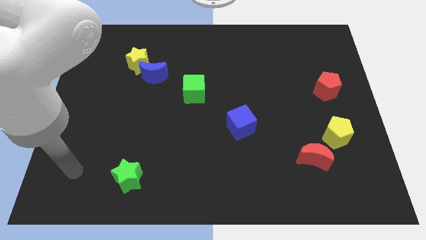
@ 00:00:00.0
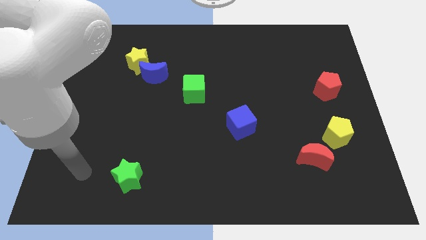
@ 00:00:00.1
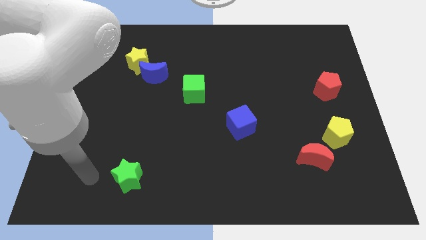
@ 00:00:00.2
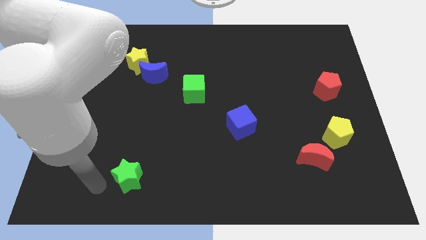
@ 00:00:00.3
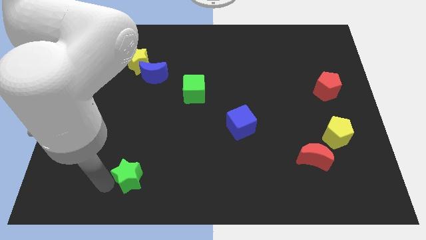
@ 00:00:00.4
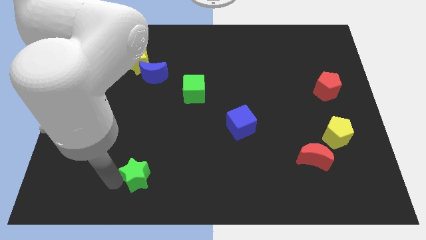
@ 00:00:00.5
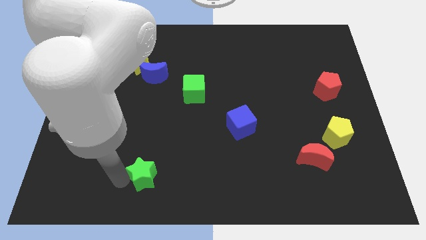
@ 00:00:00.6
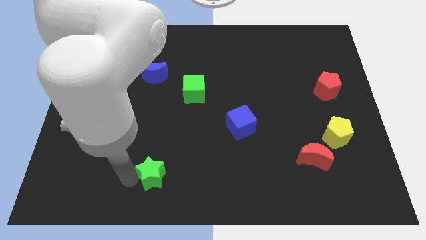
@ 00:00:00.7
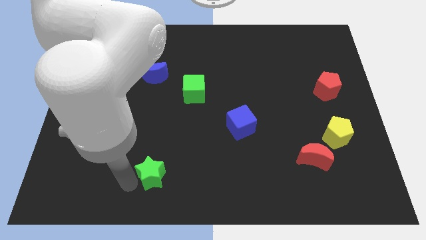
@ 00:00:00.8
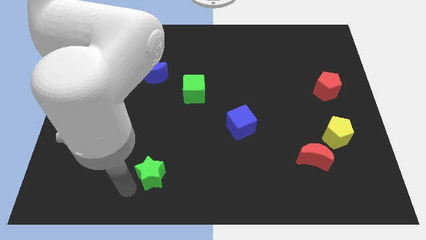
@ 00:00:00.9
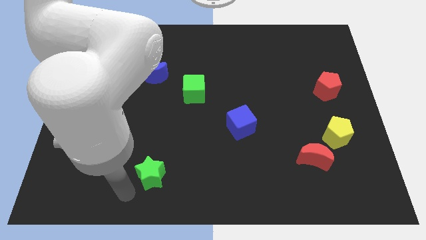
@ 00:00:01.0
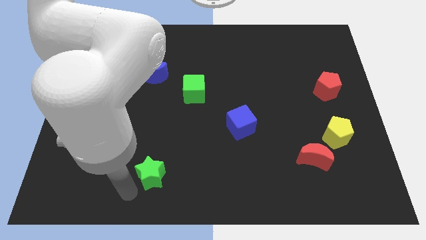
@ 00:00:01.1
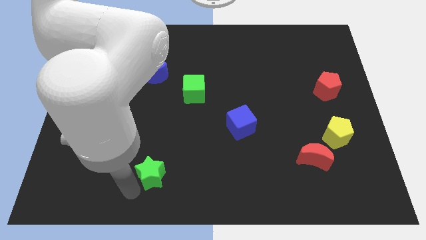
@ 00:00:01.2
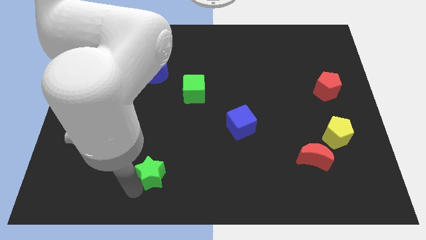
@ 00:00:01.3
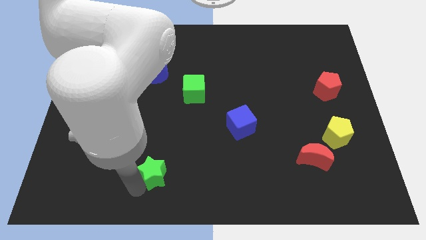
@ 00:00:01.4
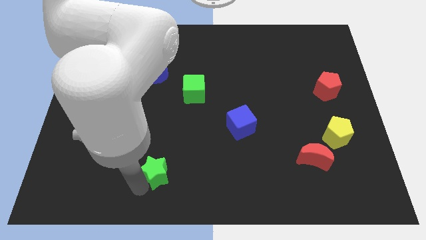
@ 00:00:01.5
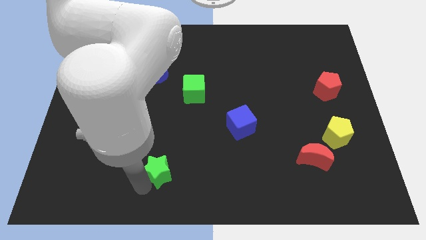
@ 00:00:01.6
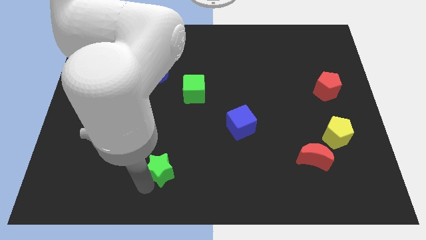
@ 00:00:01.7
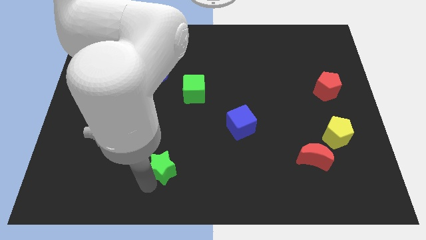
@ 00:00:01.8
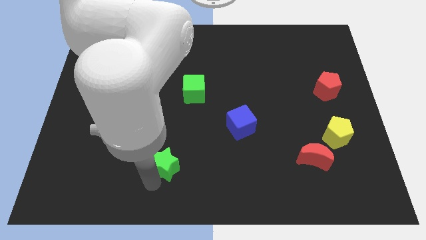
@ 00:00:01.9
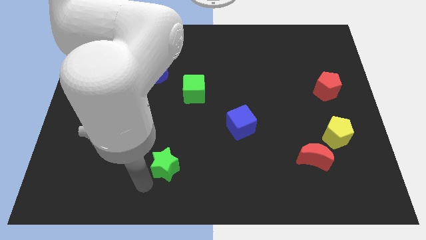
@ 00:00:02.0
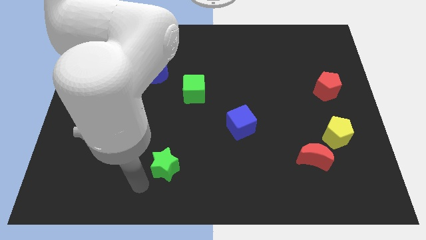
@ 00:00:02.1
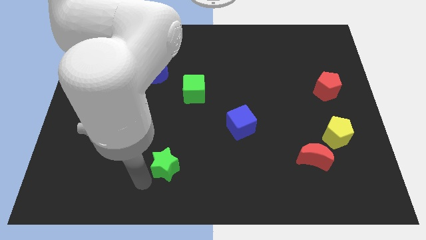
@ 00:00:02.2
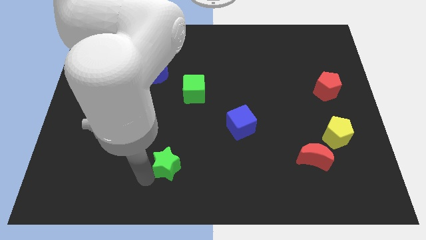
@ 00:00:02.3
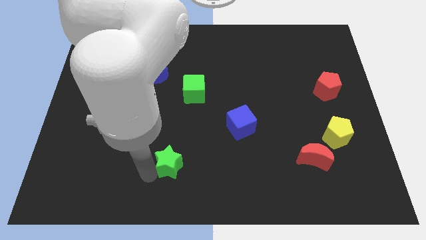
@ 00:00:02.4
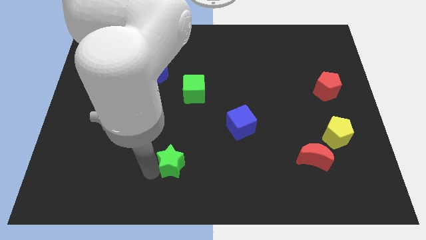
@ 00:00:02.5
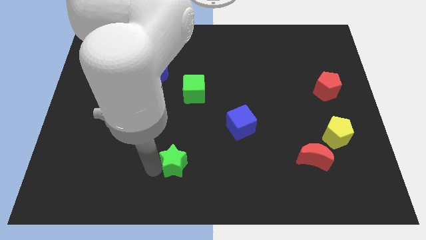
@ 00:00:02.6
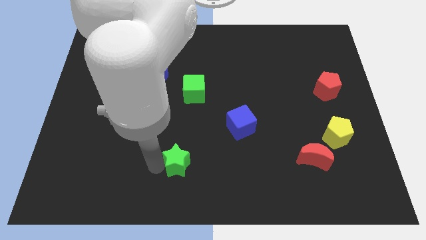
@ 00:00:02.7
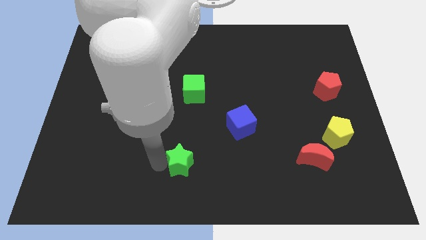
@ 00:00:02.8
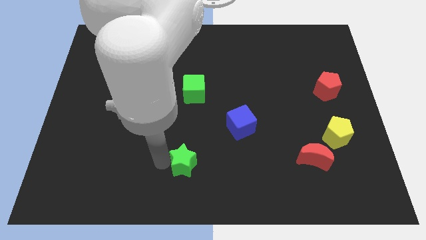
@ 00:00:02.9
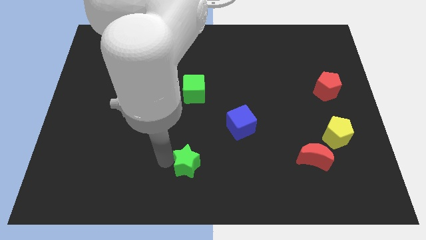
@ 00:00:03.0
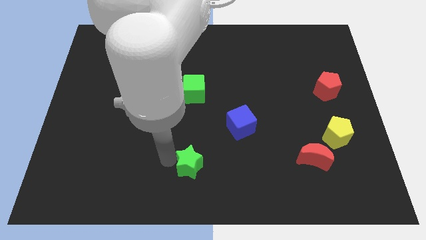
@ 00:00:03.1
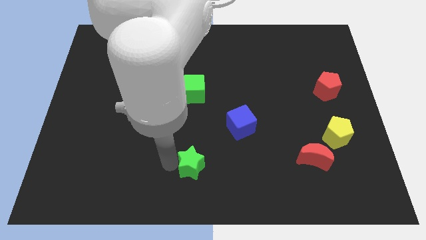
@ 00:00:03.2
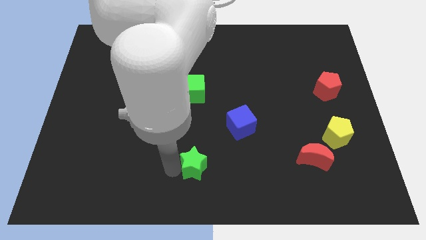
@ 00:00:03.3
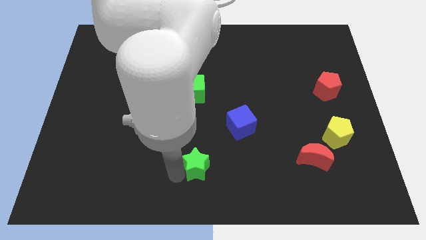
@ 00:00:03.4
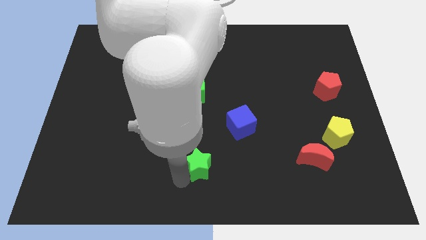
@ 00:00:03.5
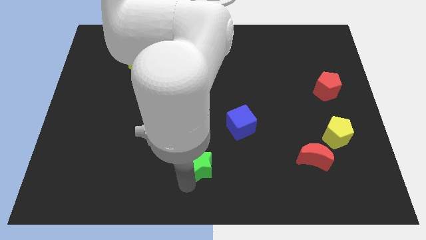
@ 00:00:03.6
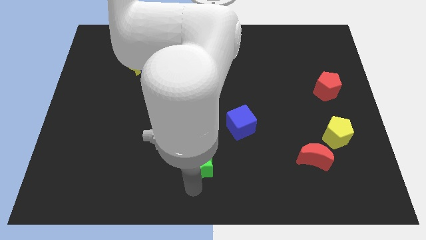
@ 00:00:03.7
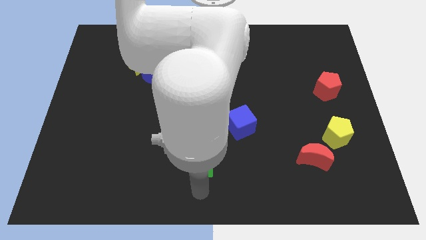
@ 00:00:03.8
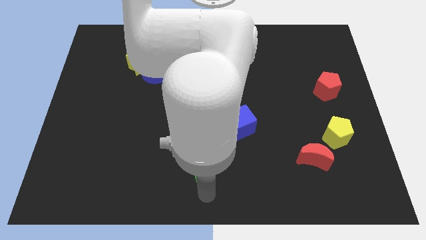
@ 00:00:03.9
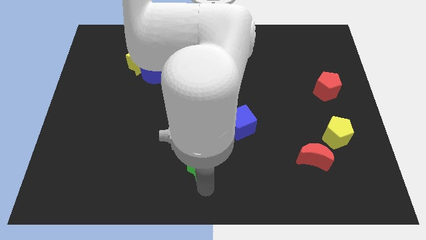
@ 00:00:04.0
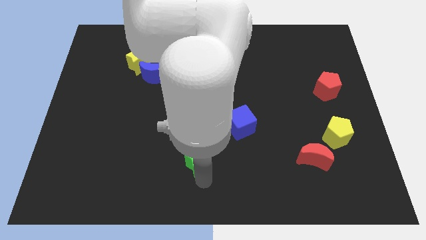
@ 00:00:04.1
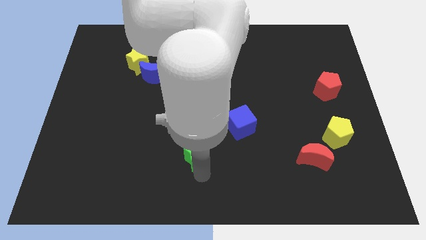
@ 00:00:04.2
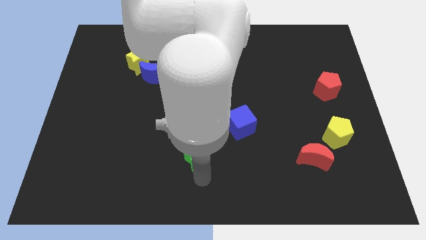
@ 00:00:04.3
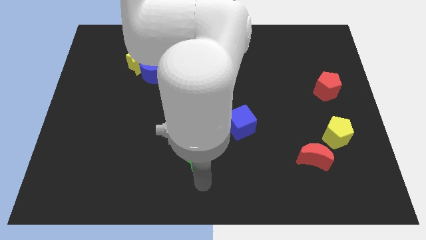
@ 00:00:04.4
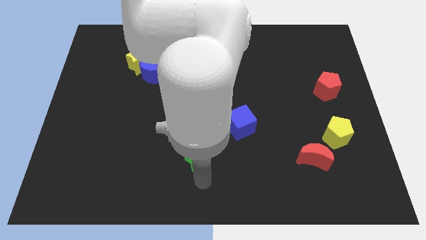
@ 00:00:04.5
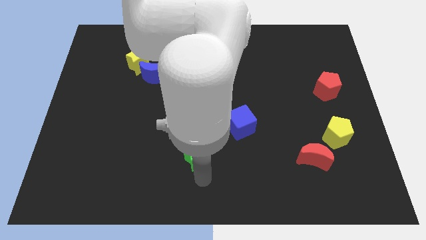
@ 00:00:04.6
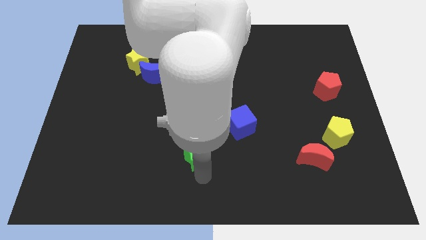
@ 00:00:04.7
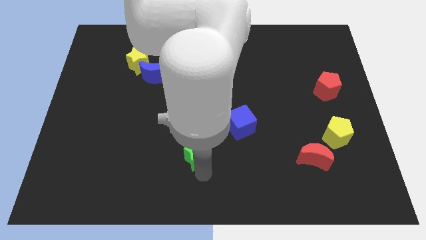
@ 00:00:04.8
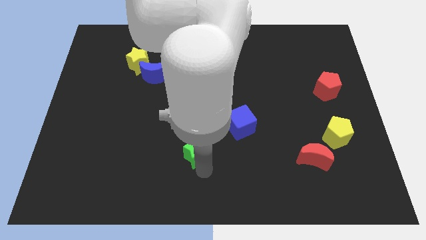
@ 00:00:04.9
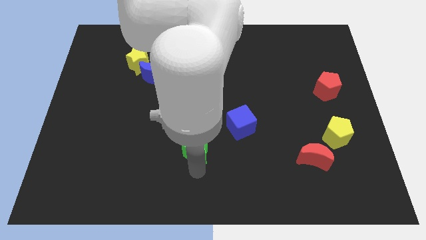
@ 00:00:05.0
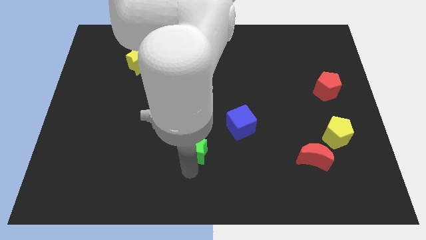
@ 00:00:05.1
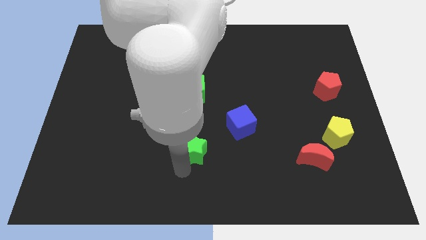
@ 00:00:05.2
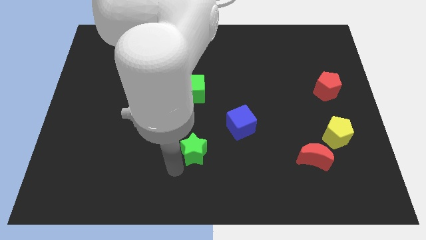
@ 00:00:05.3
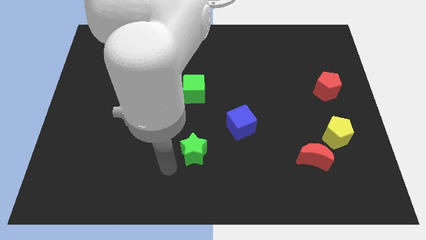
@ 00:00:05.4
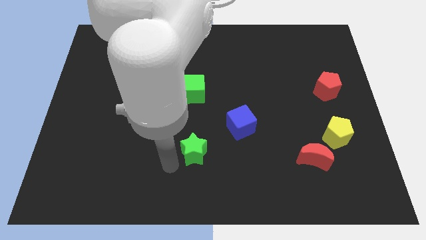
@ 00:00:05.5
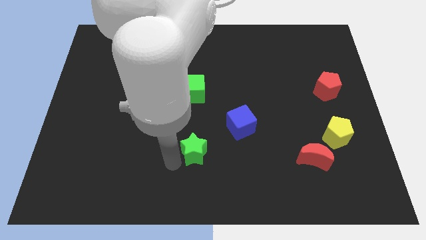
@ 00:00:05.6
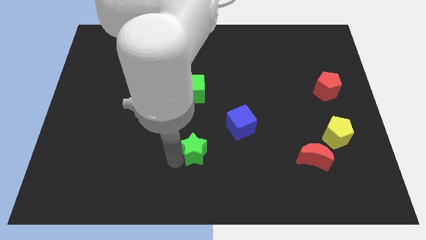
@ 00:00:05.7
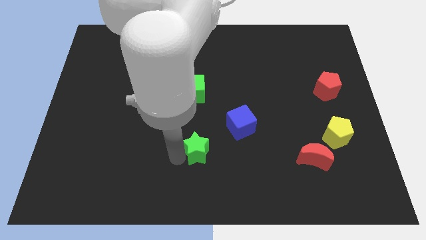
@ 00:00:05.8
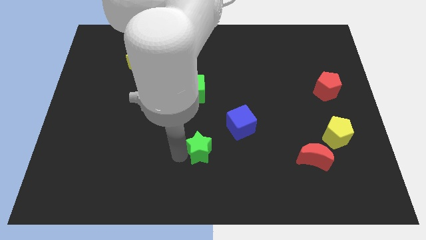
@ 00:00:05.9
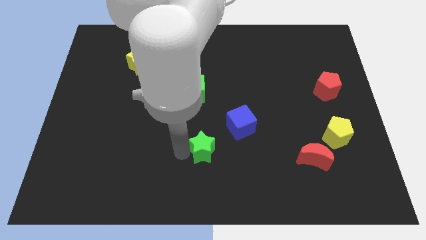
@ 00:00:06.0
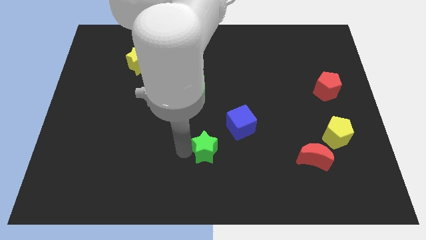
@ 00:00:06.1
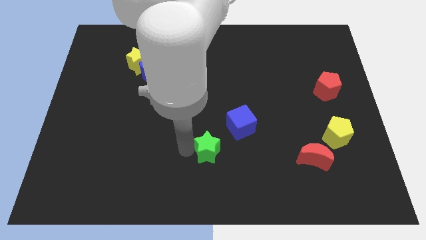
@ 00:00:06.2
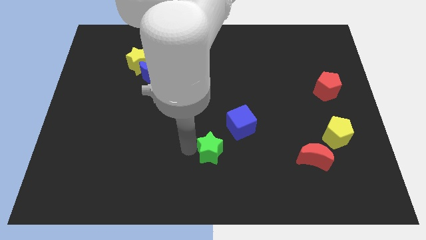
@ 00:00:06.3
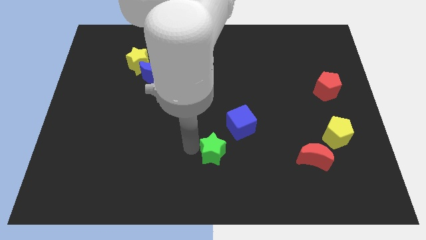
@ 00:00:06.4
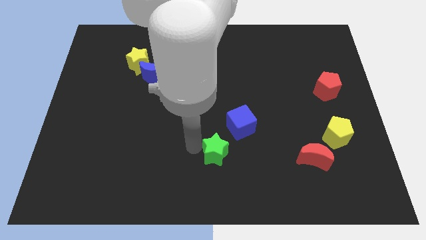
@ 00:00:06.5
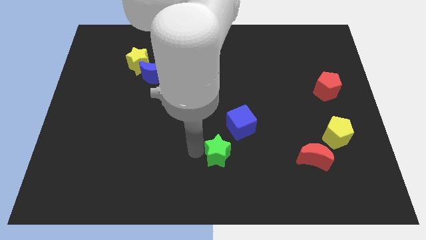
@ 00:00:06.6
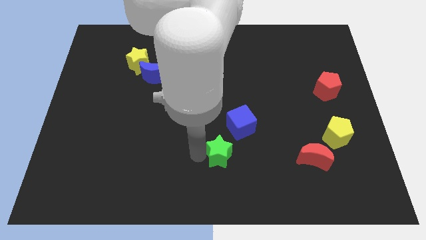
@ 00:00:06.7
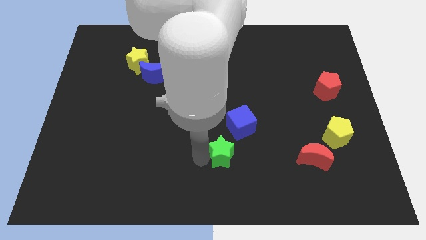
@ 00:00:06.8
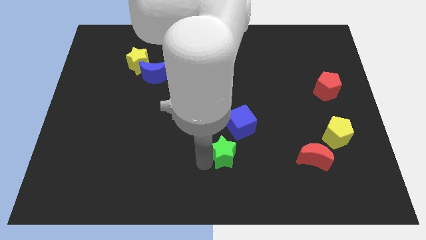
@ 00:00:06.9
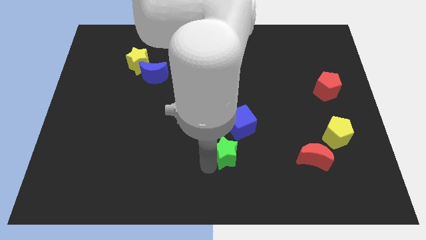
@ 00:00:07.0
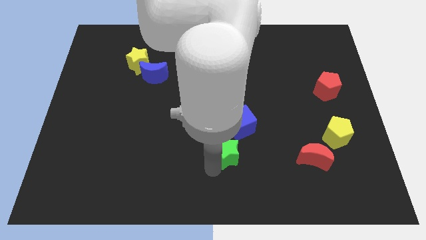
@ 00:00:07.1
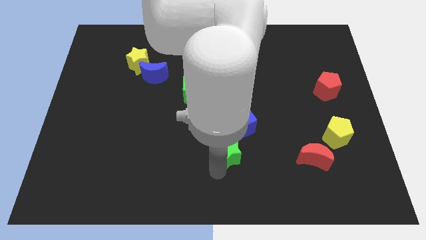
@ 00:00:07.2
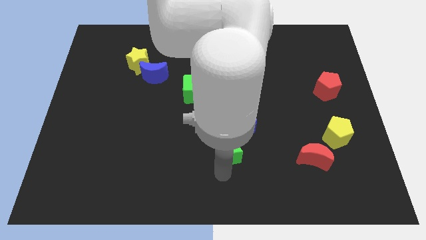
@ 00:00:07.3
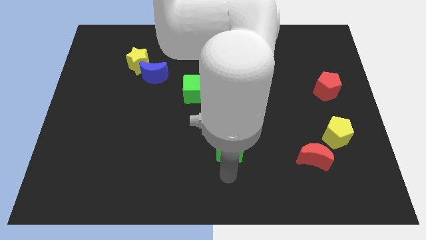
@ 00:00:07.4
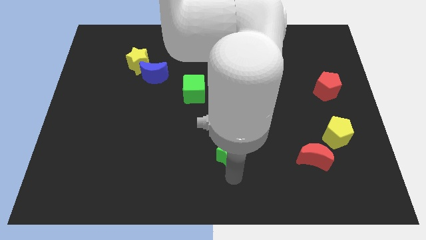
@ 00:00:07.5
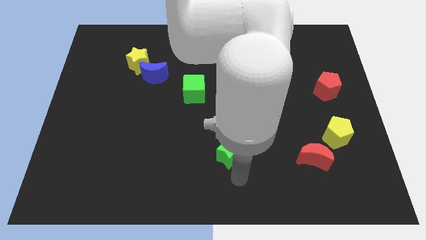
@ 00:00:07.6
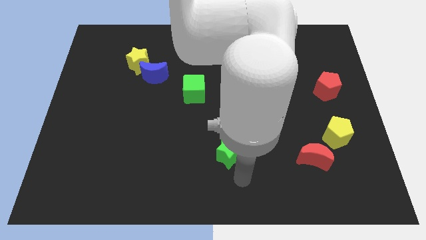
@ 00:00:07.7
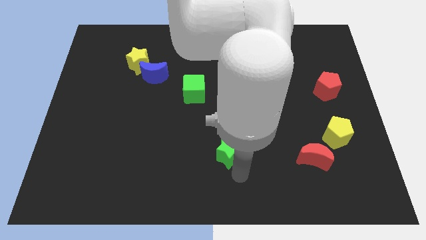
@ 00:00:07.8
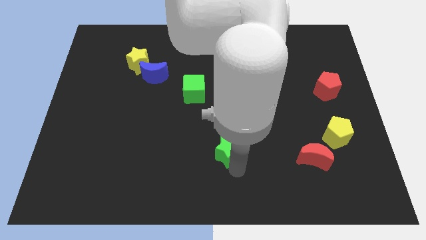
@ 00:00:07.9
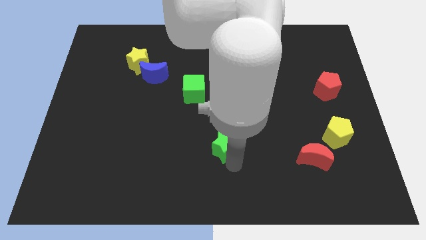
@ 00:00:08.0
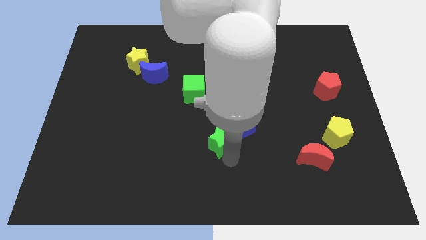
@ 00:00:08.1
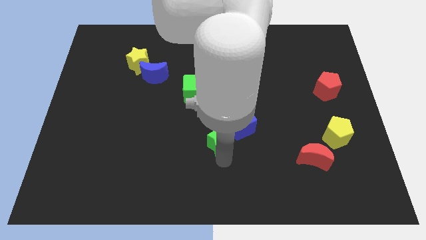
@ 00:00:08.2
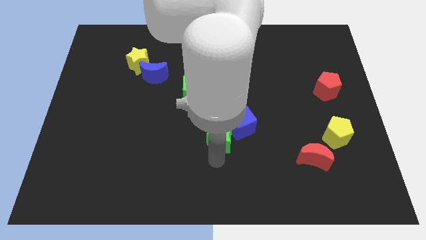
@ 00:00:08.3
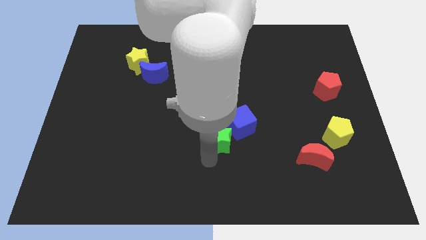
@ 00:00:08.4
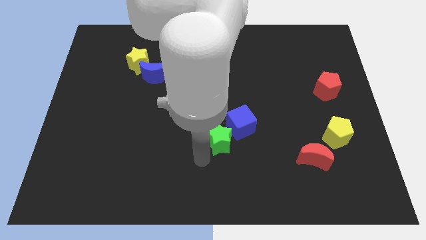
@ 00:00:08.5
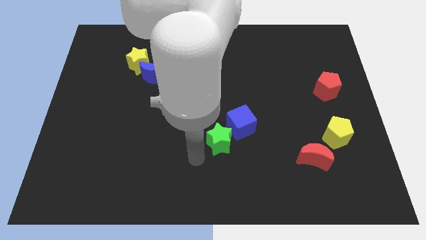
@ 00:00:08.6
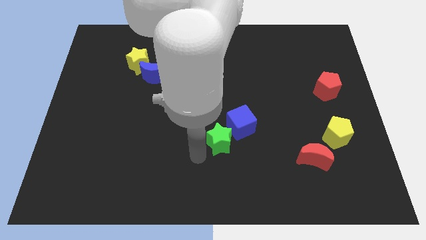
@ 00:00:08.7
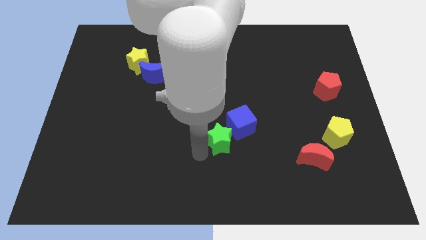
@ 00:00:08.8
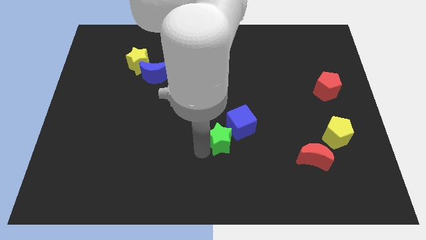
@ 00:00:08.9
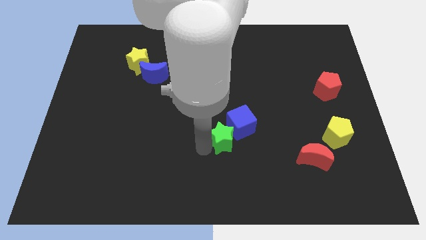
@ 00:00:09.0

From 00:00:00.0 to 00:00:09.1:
slide the green star next to the blue cube
